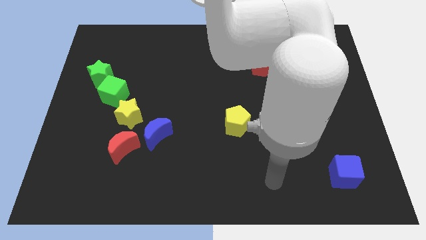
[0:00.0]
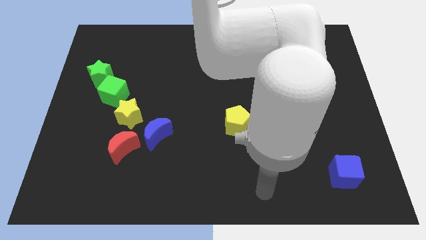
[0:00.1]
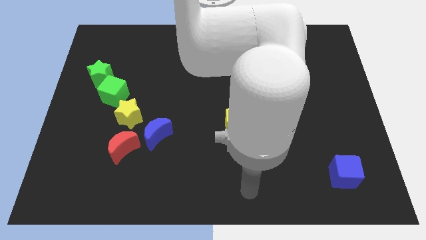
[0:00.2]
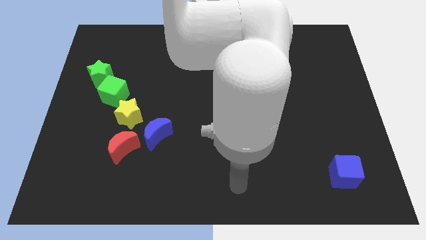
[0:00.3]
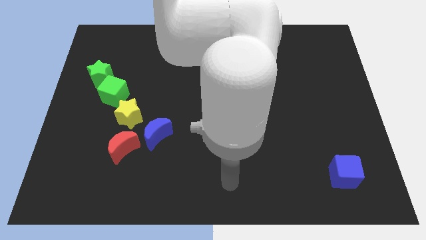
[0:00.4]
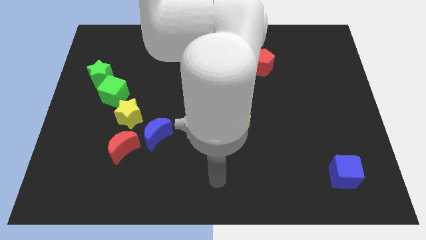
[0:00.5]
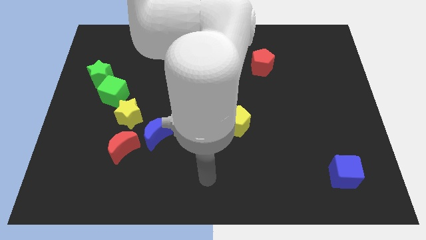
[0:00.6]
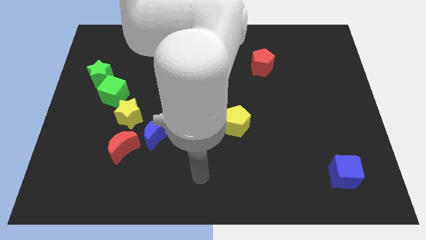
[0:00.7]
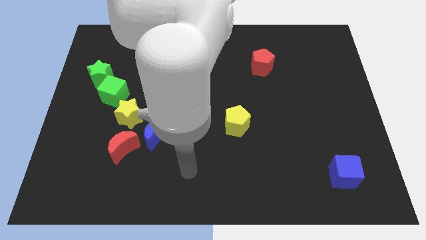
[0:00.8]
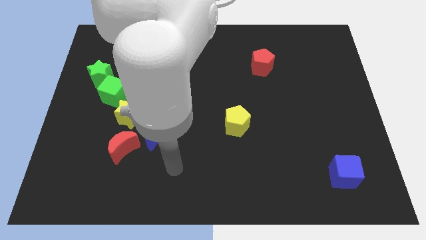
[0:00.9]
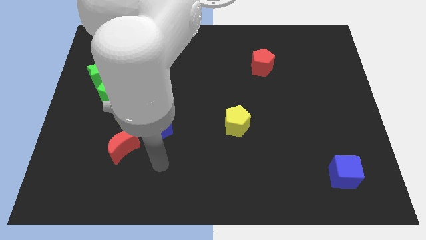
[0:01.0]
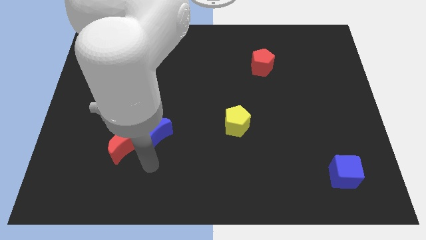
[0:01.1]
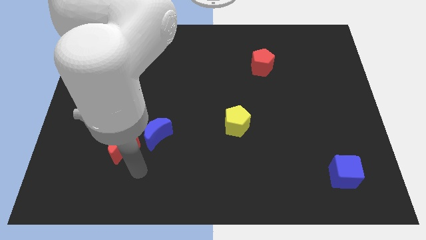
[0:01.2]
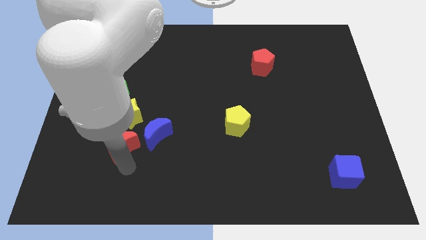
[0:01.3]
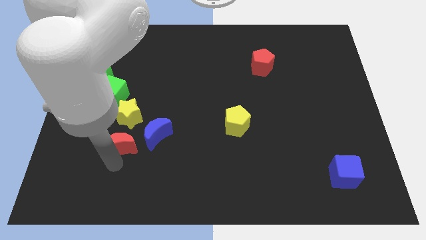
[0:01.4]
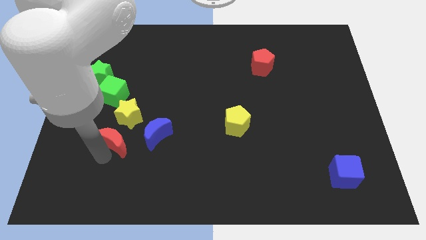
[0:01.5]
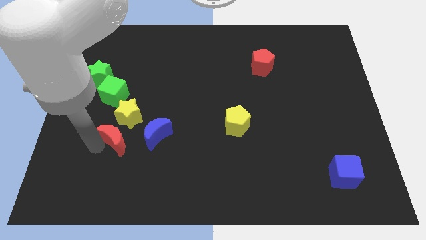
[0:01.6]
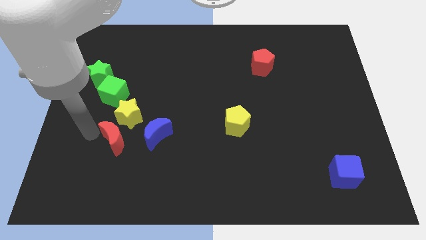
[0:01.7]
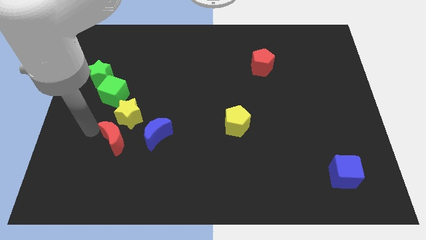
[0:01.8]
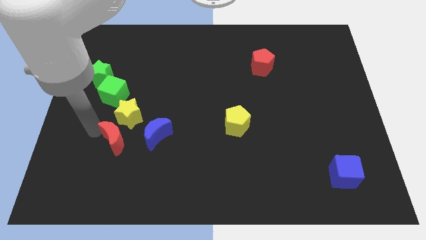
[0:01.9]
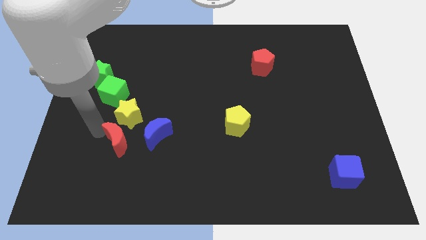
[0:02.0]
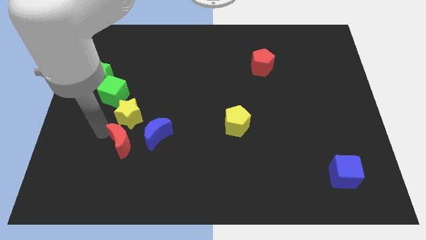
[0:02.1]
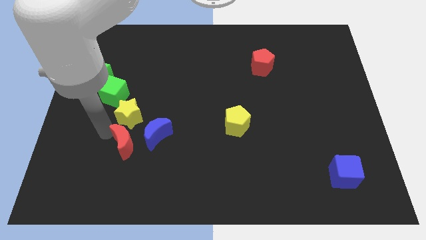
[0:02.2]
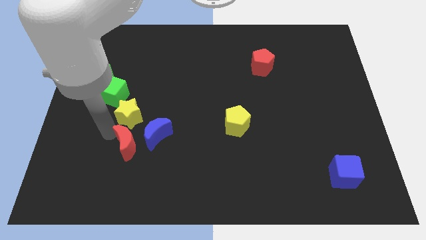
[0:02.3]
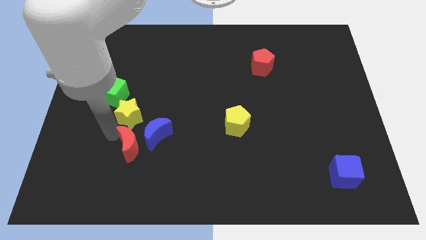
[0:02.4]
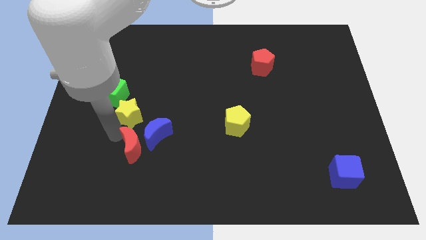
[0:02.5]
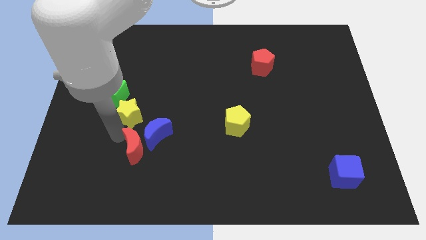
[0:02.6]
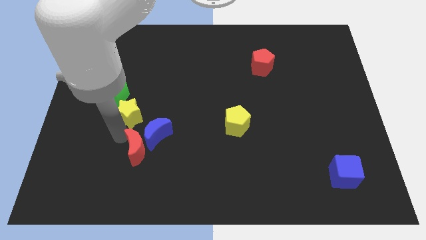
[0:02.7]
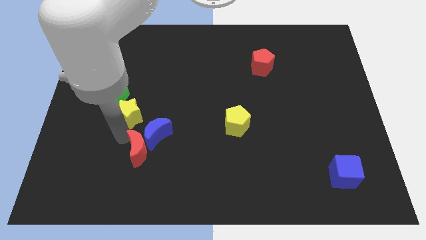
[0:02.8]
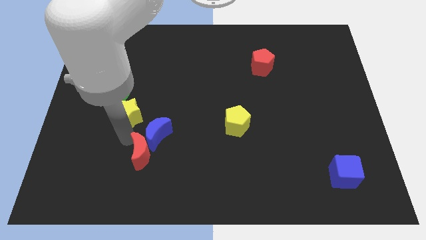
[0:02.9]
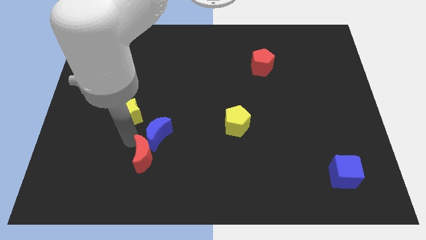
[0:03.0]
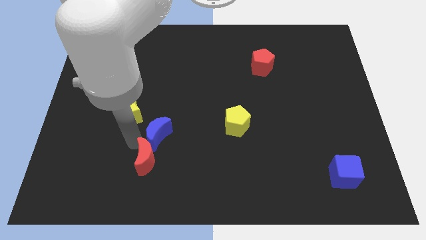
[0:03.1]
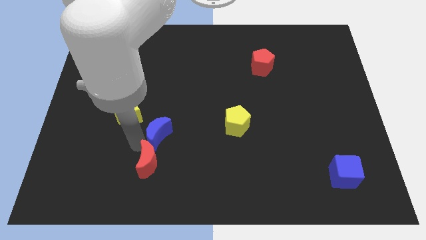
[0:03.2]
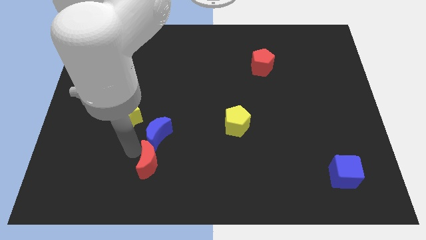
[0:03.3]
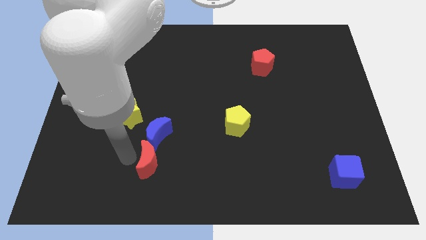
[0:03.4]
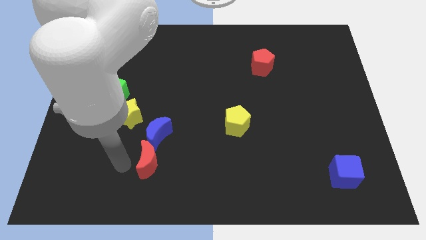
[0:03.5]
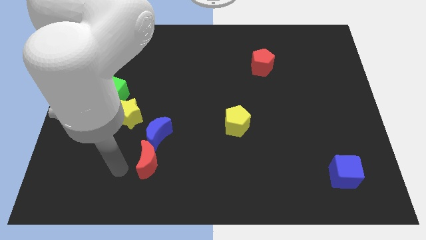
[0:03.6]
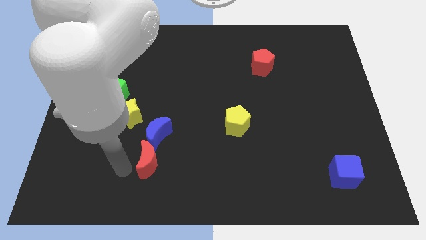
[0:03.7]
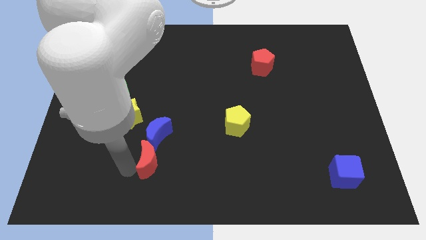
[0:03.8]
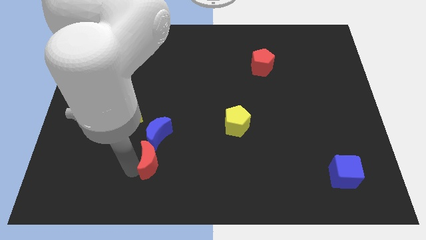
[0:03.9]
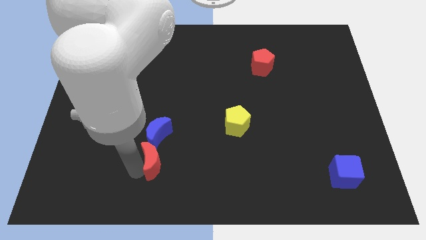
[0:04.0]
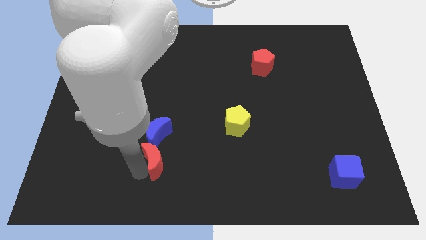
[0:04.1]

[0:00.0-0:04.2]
move the red moon right a little

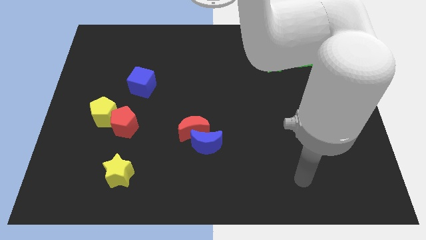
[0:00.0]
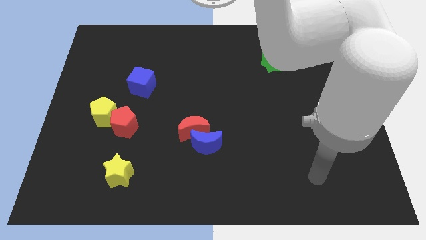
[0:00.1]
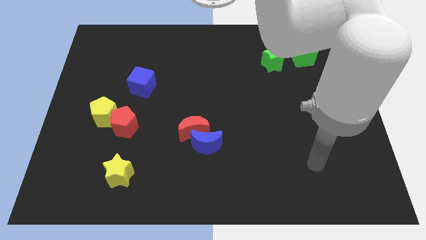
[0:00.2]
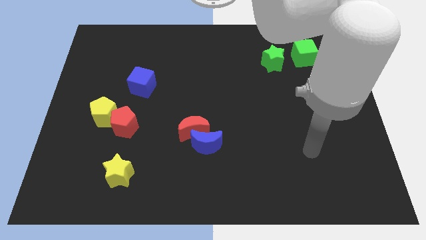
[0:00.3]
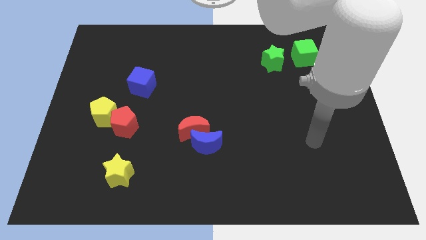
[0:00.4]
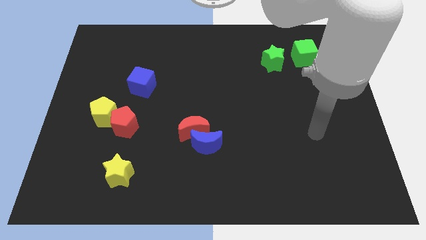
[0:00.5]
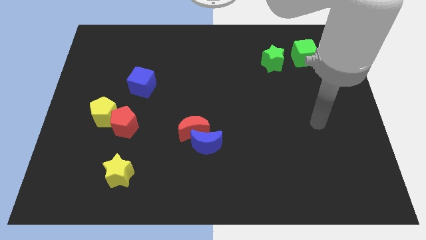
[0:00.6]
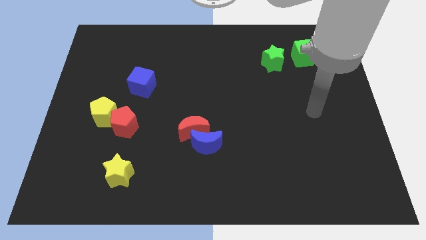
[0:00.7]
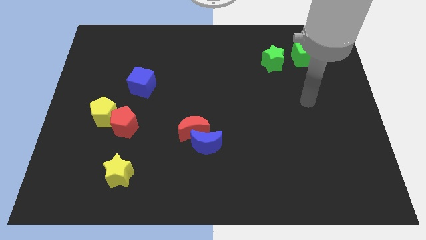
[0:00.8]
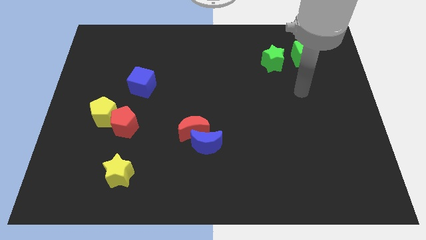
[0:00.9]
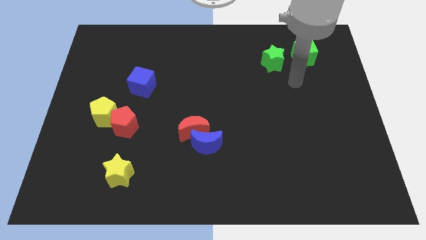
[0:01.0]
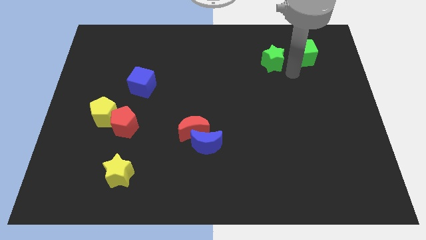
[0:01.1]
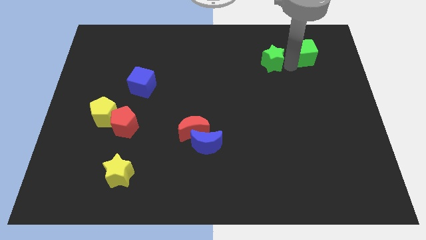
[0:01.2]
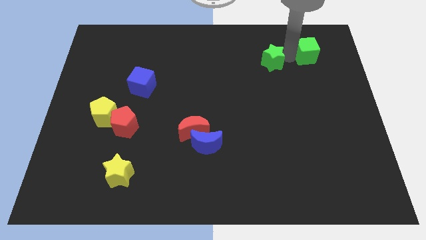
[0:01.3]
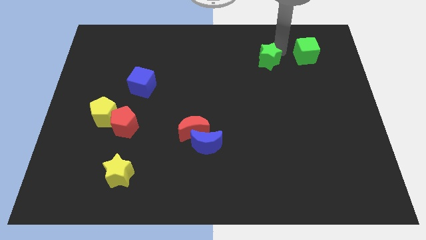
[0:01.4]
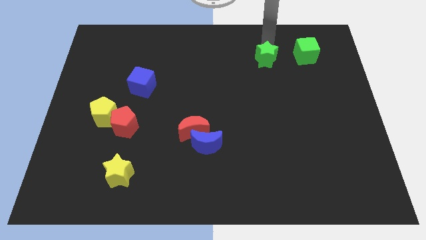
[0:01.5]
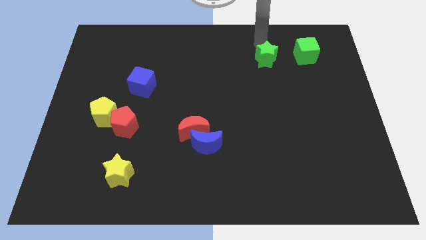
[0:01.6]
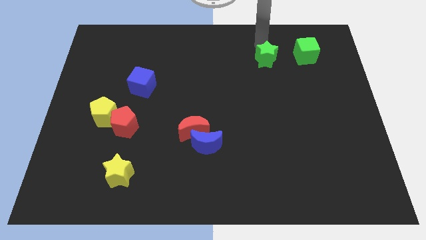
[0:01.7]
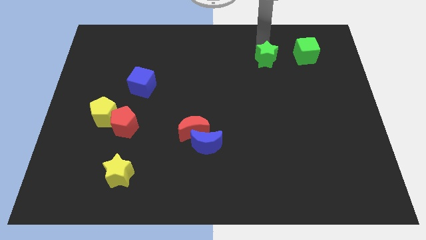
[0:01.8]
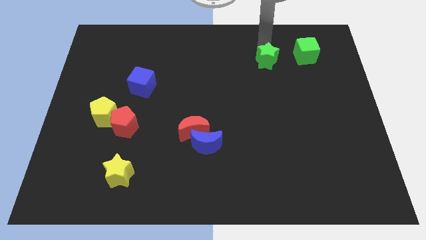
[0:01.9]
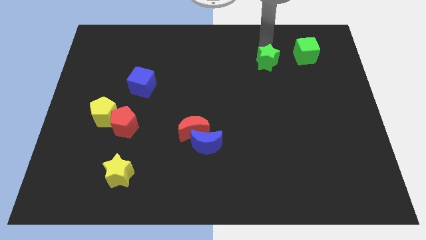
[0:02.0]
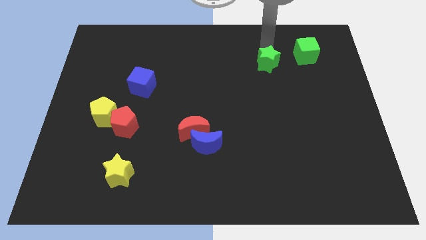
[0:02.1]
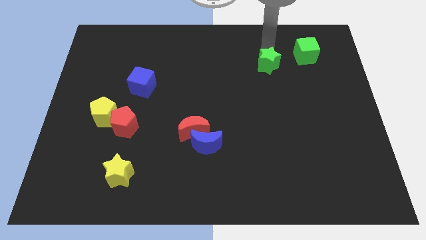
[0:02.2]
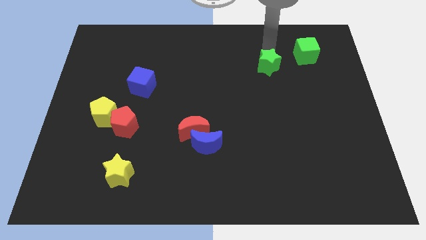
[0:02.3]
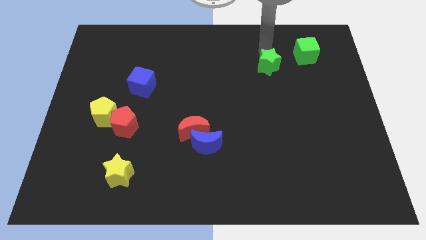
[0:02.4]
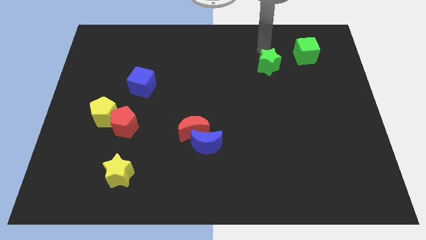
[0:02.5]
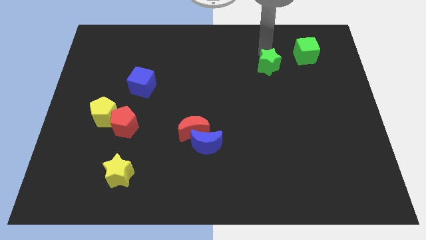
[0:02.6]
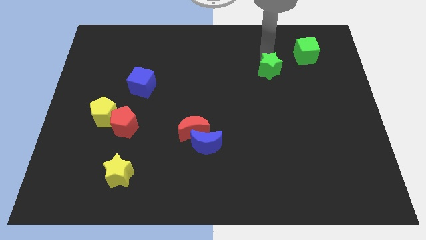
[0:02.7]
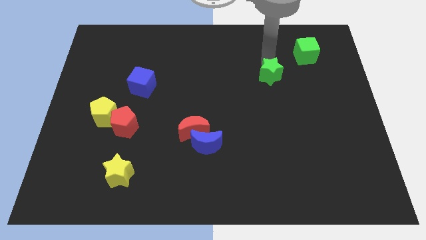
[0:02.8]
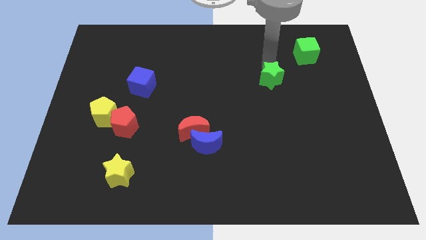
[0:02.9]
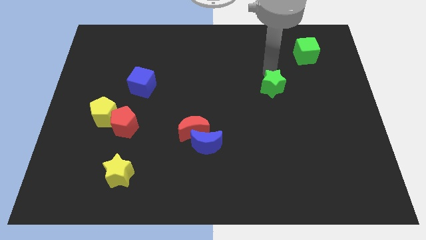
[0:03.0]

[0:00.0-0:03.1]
push the green star downwards somewhat

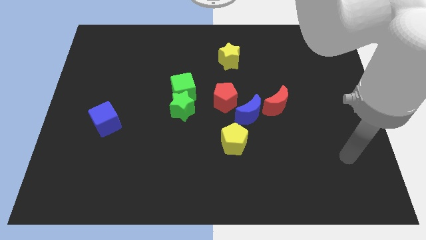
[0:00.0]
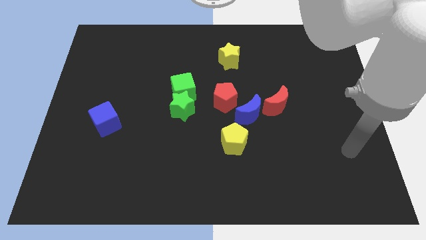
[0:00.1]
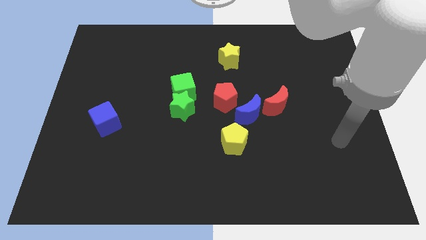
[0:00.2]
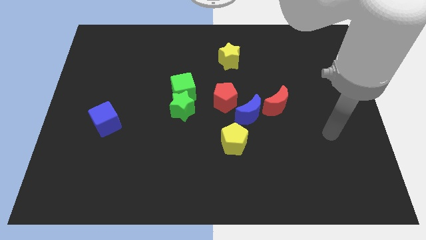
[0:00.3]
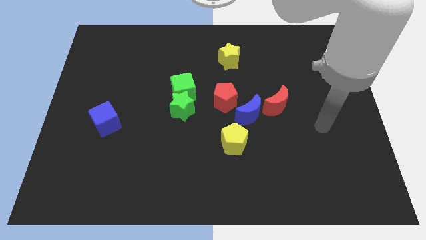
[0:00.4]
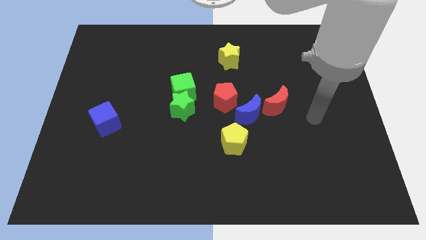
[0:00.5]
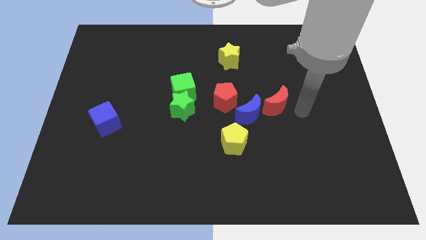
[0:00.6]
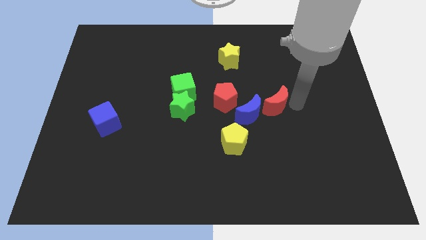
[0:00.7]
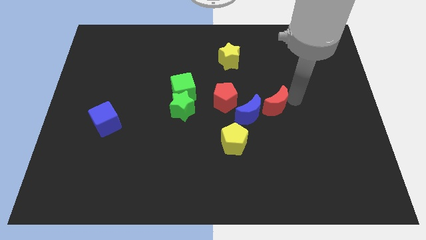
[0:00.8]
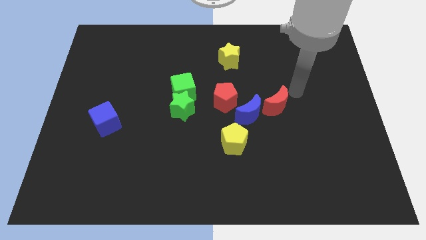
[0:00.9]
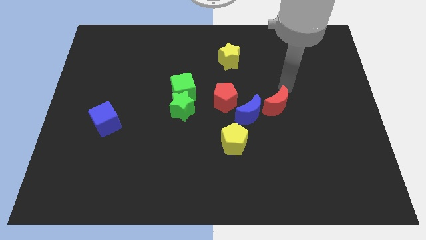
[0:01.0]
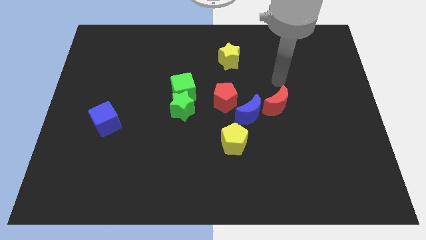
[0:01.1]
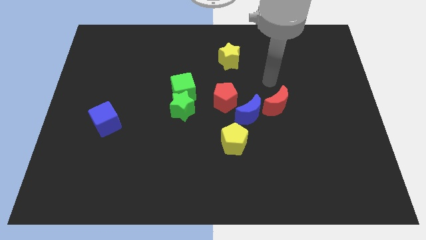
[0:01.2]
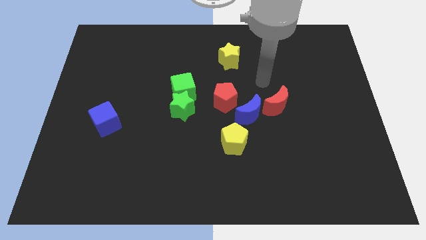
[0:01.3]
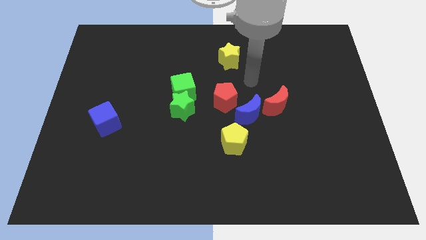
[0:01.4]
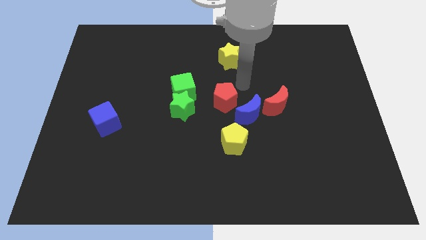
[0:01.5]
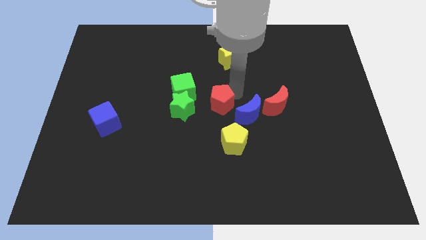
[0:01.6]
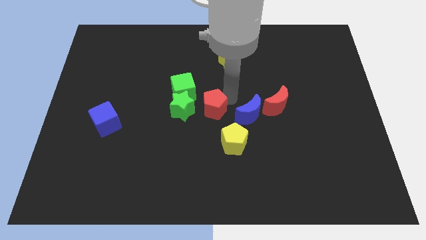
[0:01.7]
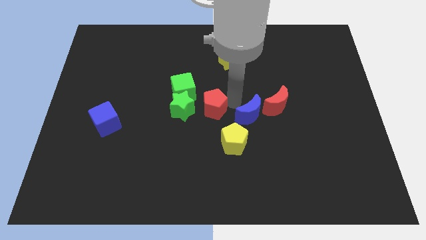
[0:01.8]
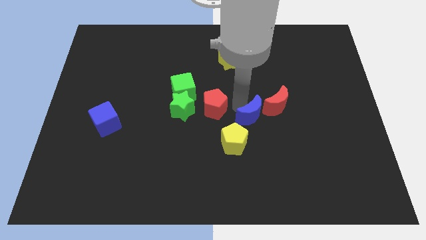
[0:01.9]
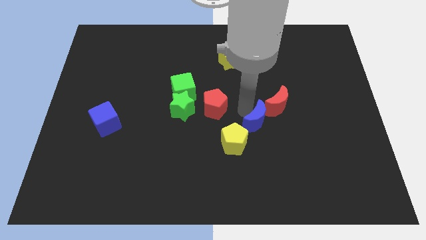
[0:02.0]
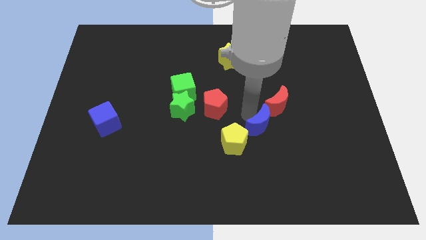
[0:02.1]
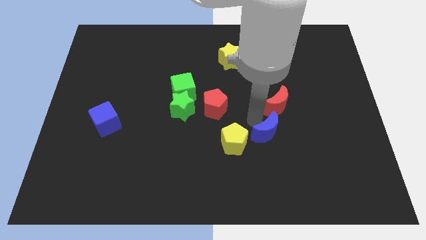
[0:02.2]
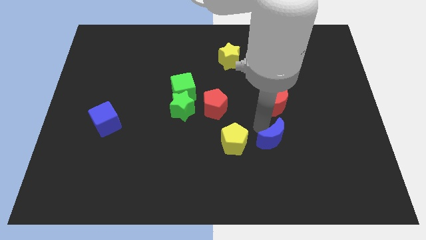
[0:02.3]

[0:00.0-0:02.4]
slightly push the blue moon downwards and then to the right
